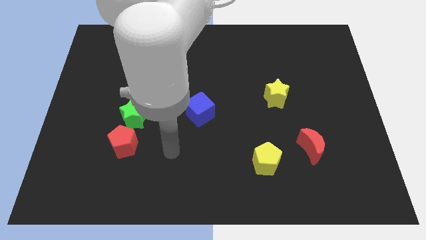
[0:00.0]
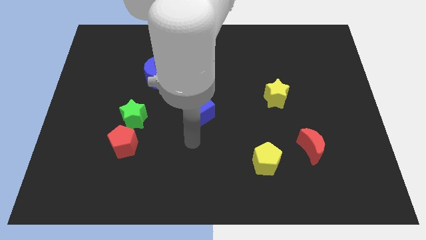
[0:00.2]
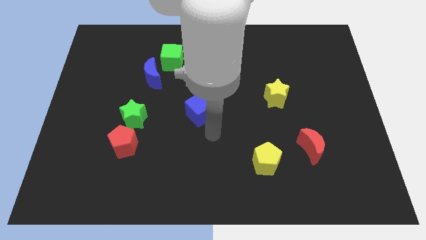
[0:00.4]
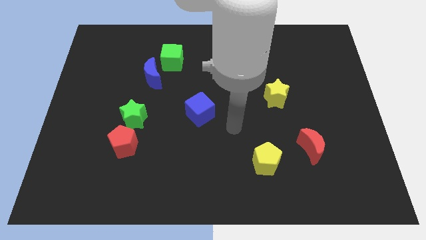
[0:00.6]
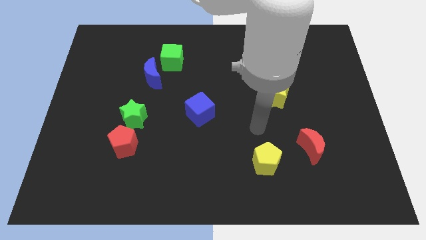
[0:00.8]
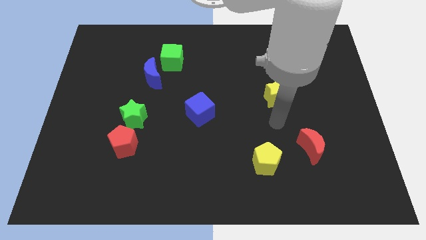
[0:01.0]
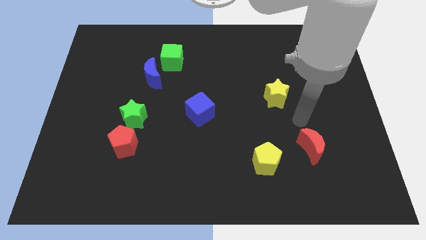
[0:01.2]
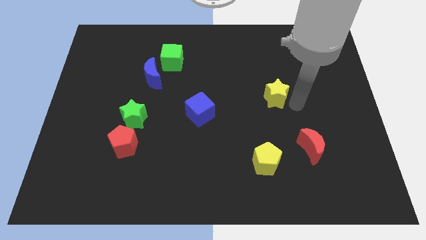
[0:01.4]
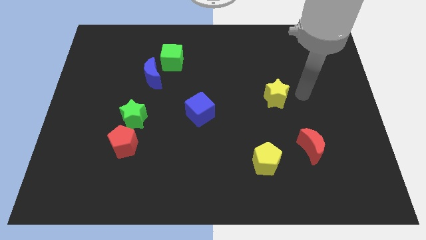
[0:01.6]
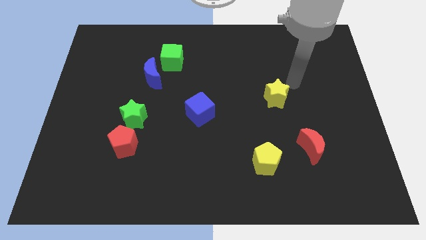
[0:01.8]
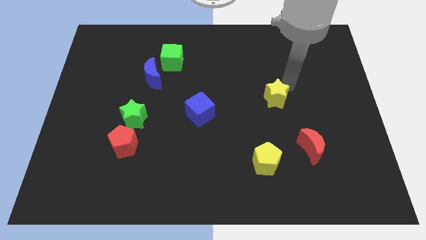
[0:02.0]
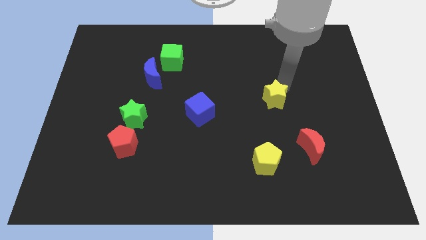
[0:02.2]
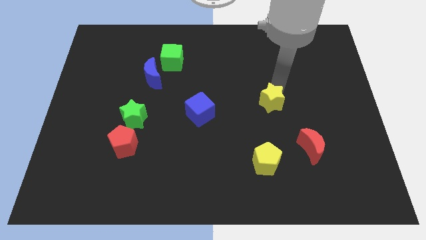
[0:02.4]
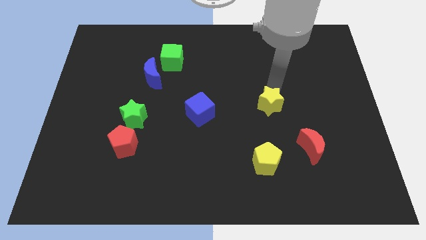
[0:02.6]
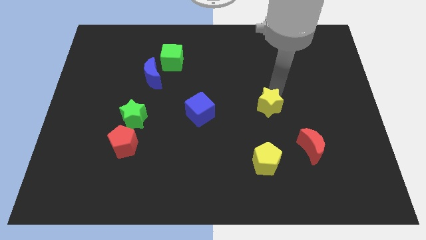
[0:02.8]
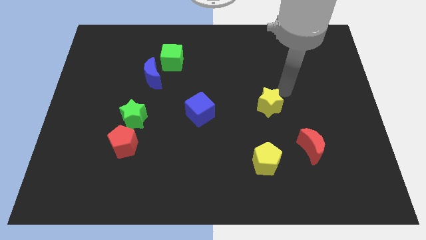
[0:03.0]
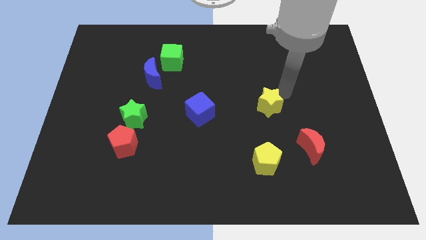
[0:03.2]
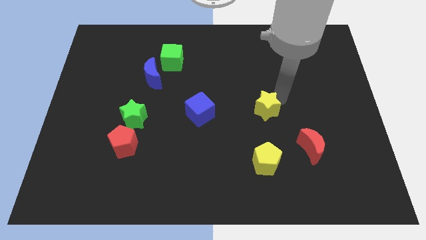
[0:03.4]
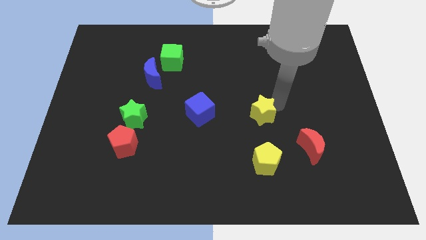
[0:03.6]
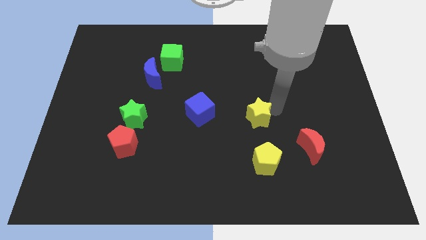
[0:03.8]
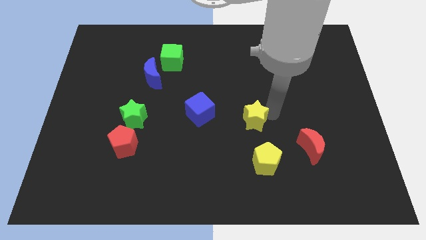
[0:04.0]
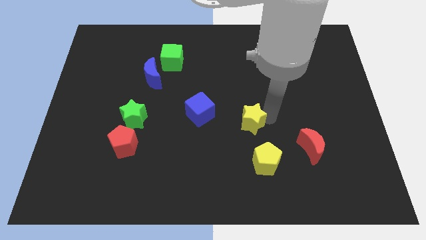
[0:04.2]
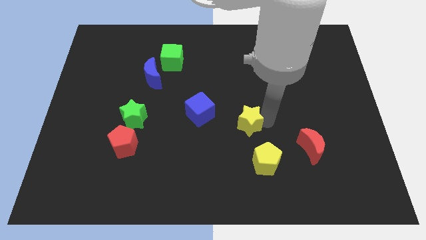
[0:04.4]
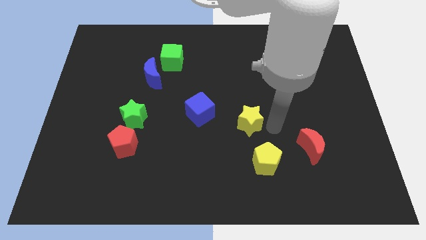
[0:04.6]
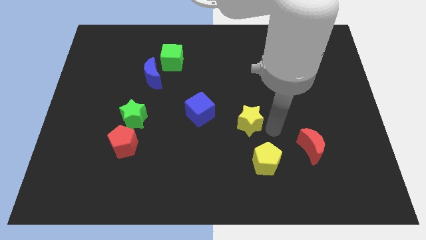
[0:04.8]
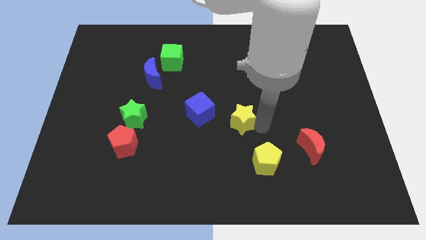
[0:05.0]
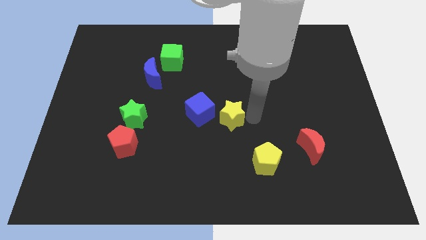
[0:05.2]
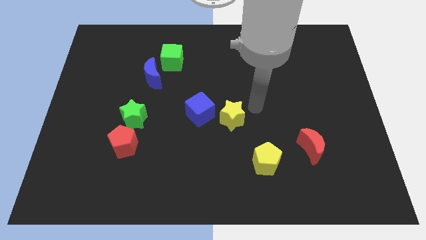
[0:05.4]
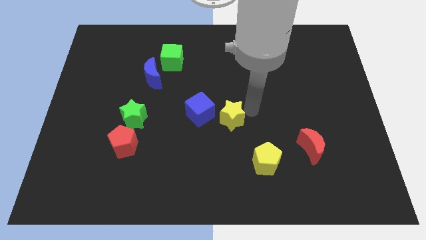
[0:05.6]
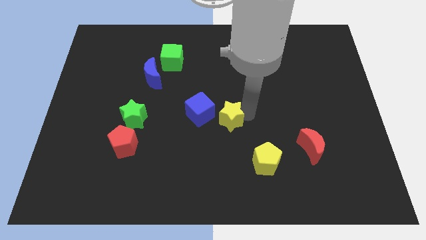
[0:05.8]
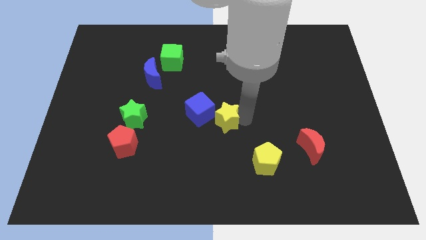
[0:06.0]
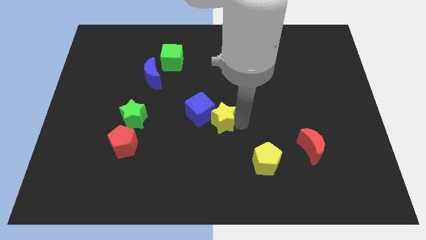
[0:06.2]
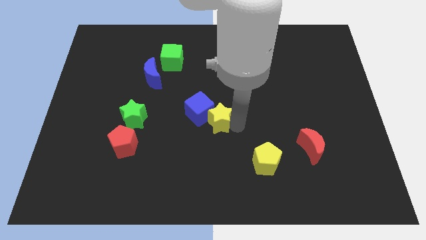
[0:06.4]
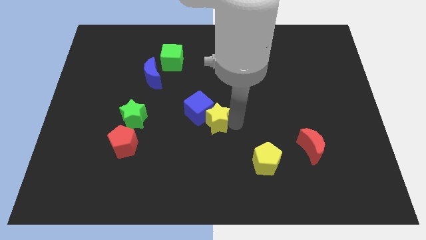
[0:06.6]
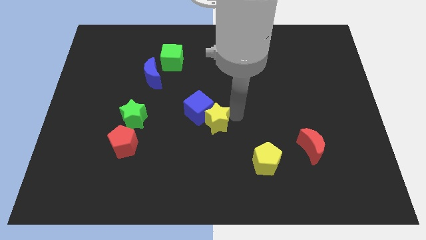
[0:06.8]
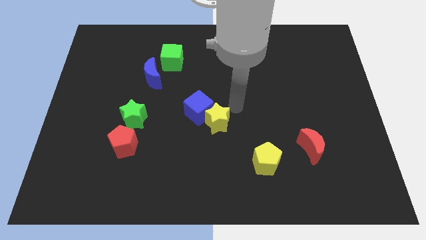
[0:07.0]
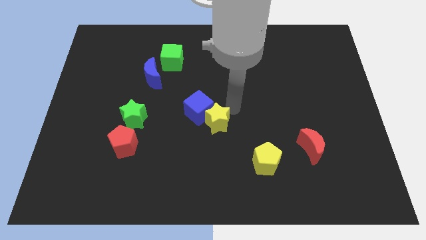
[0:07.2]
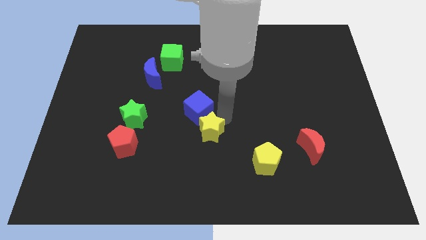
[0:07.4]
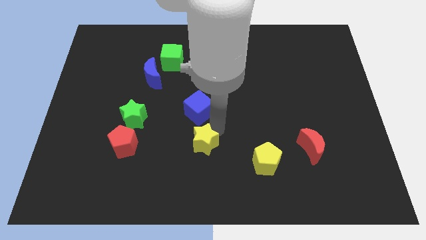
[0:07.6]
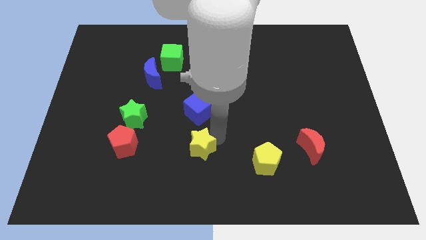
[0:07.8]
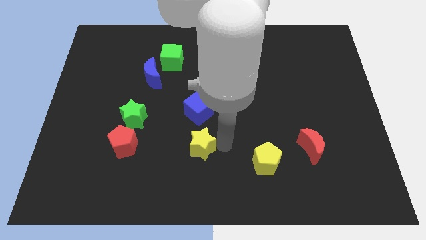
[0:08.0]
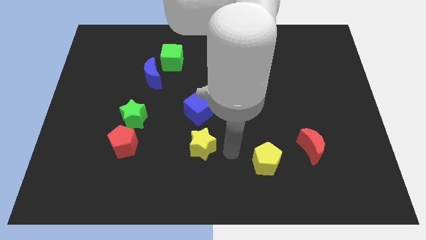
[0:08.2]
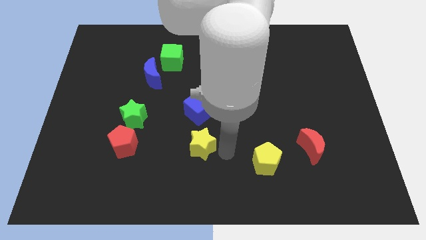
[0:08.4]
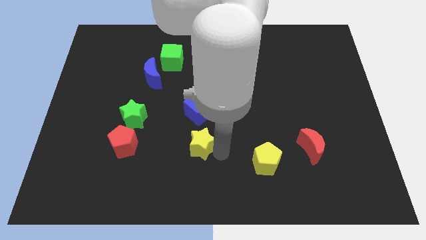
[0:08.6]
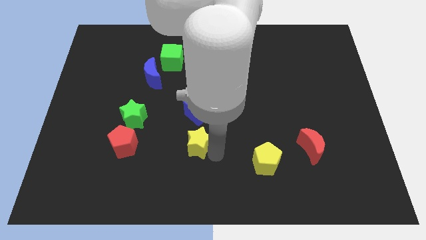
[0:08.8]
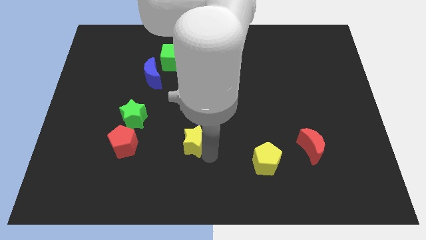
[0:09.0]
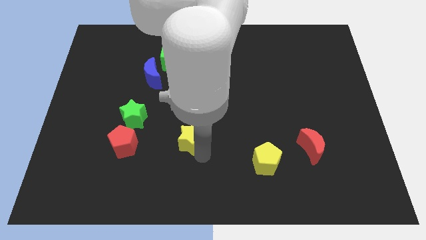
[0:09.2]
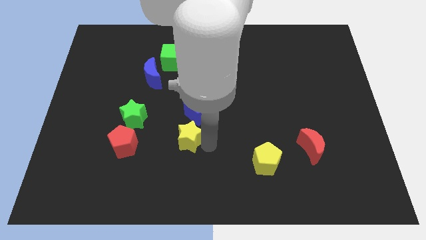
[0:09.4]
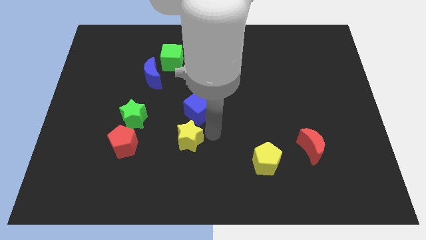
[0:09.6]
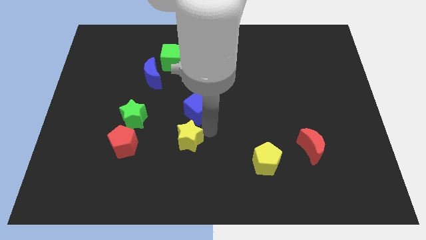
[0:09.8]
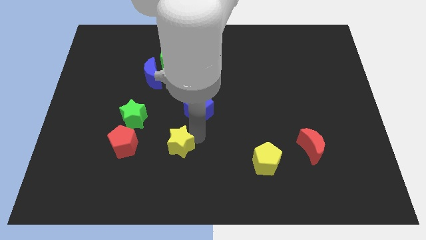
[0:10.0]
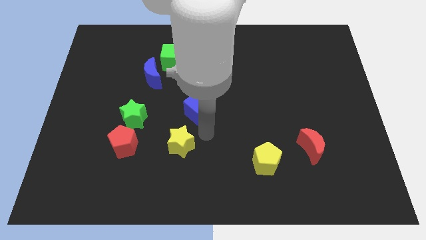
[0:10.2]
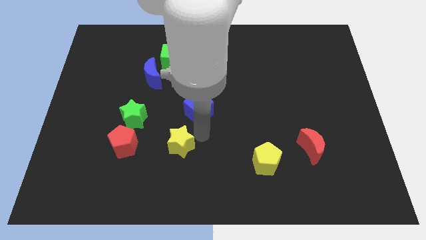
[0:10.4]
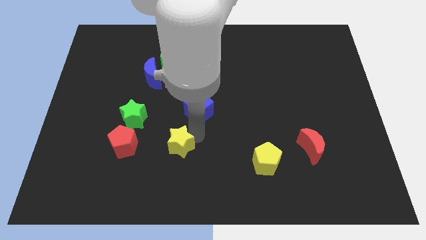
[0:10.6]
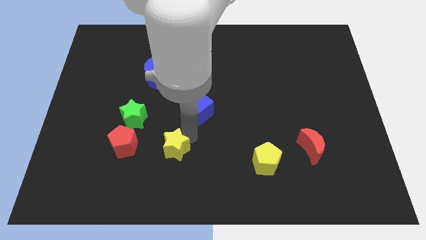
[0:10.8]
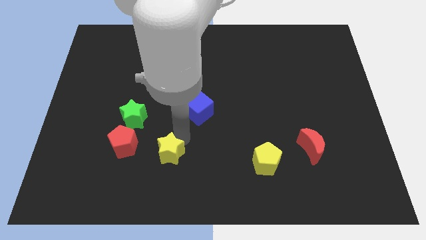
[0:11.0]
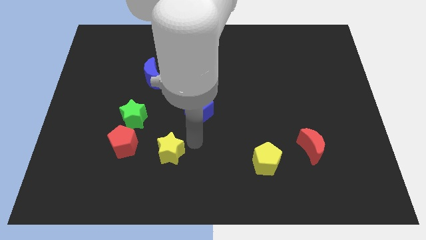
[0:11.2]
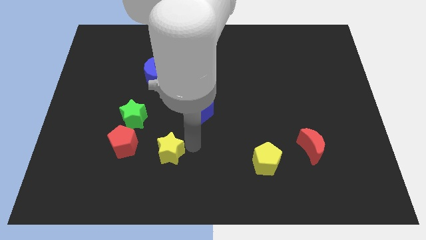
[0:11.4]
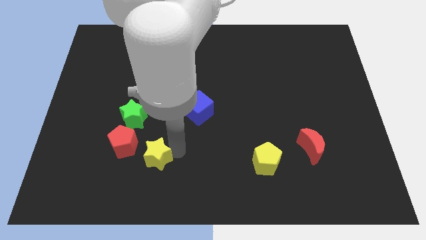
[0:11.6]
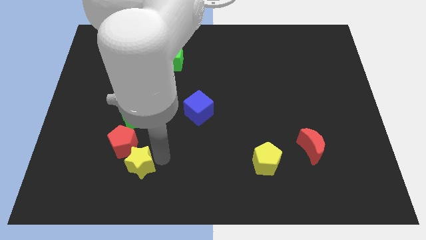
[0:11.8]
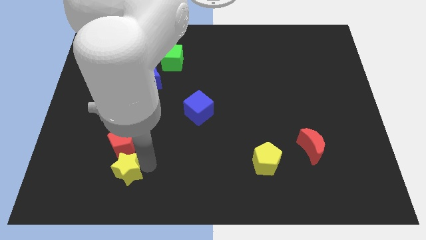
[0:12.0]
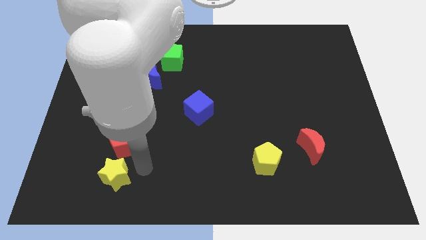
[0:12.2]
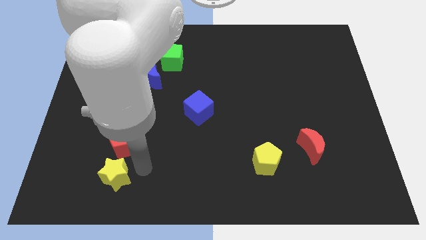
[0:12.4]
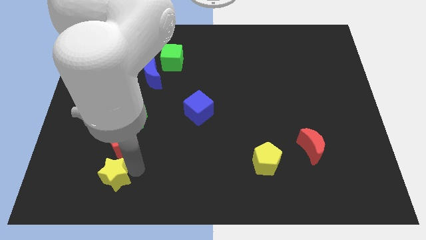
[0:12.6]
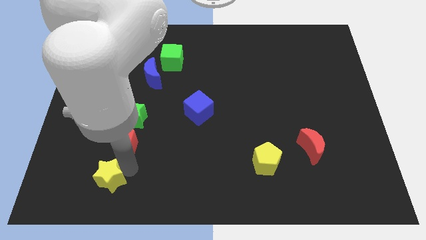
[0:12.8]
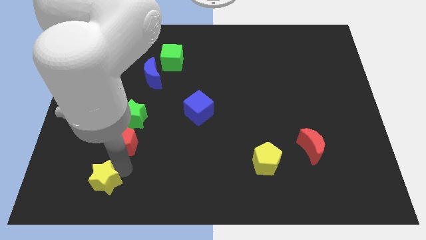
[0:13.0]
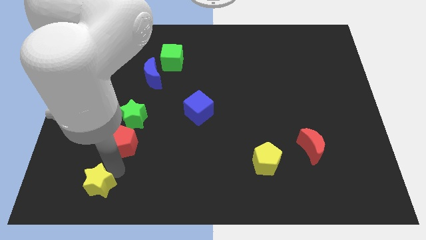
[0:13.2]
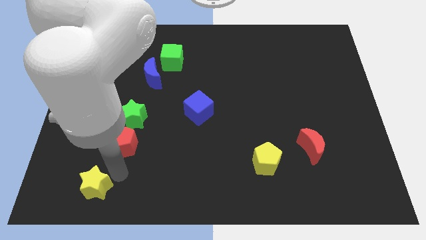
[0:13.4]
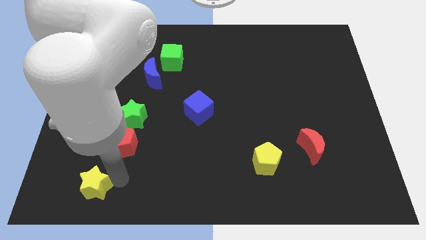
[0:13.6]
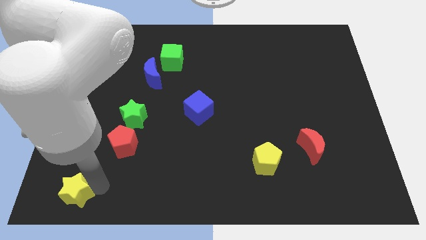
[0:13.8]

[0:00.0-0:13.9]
put the yellow star to the bottom left
